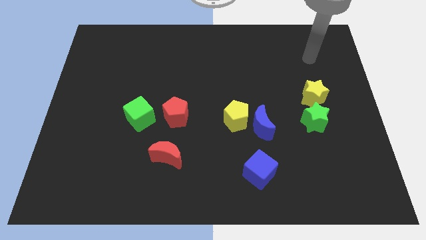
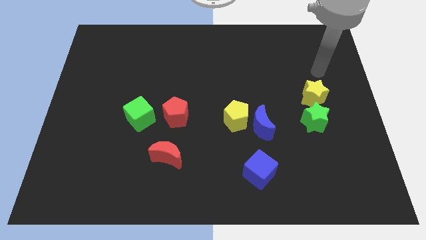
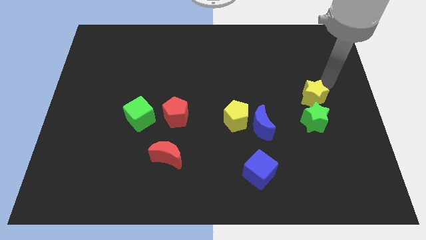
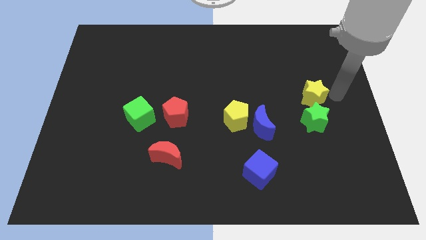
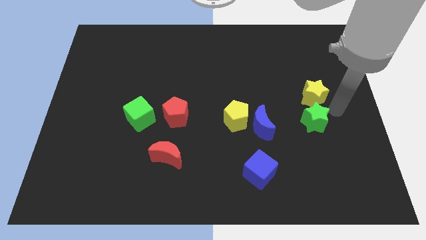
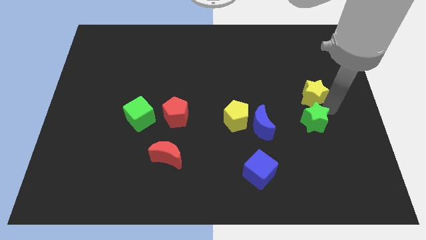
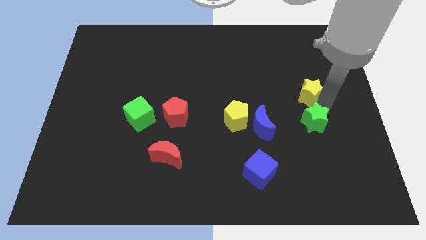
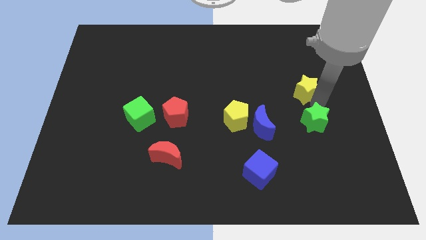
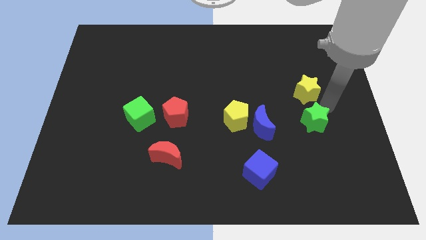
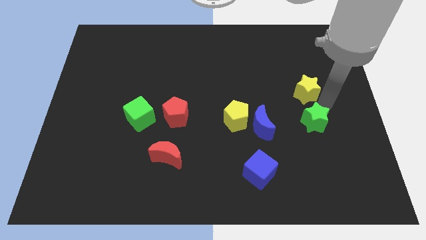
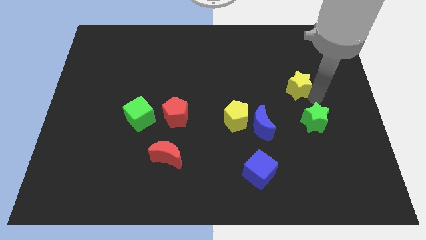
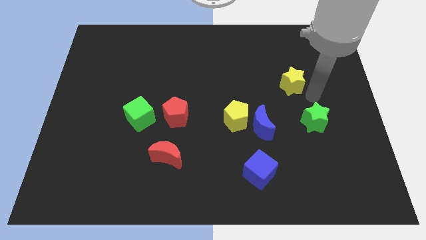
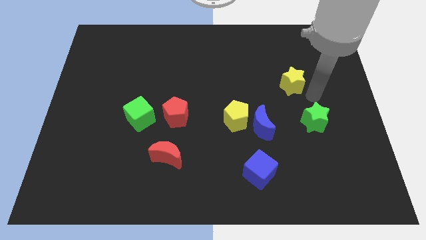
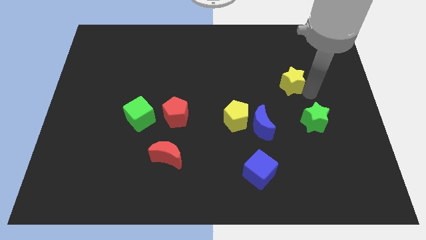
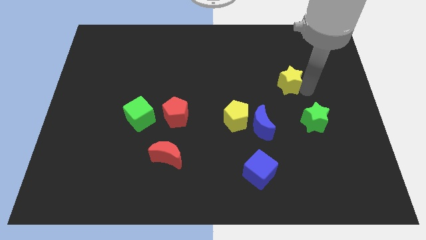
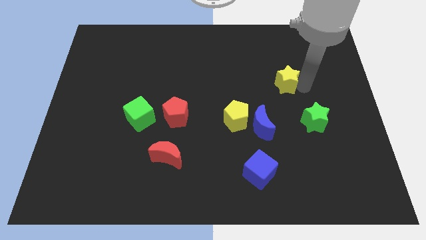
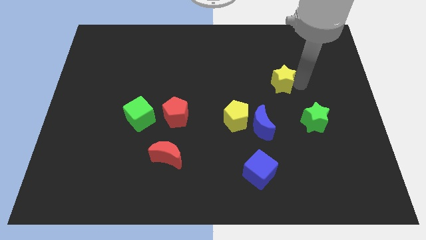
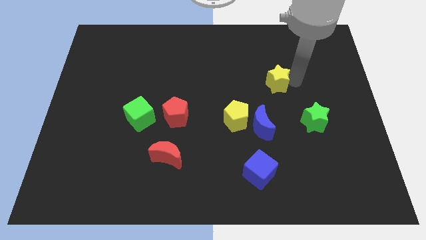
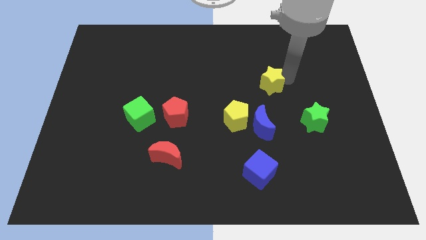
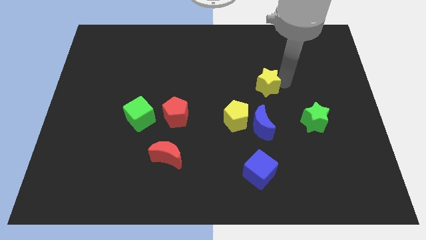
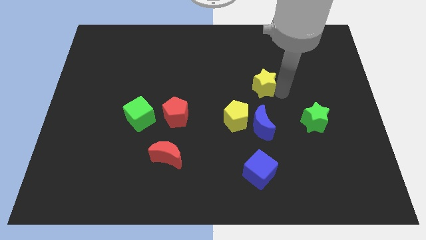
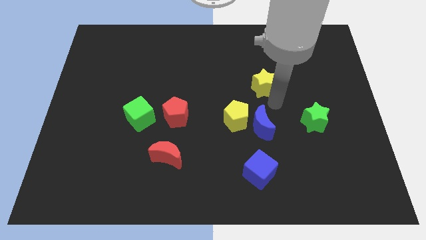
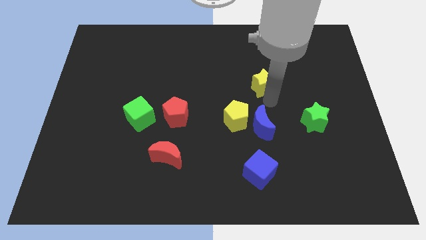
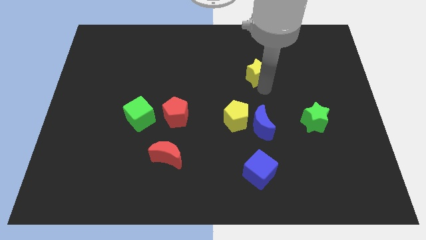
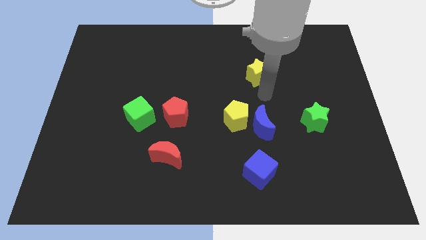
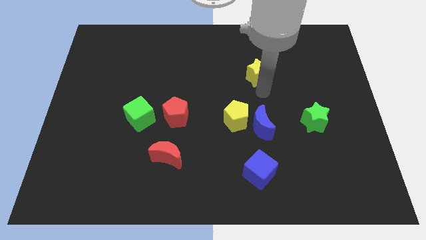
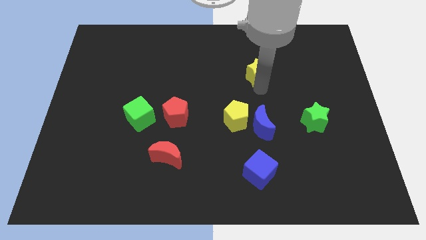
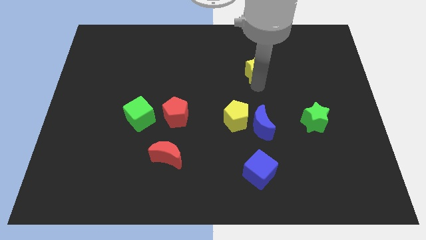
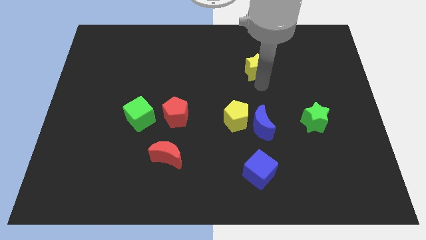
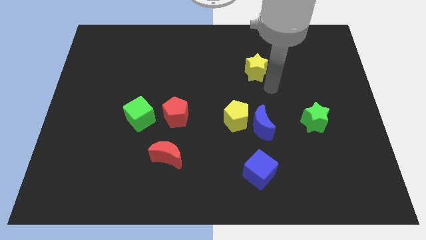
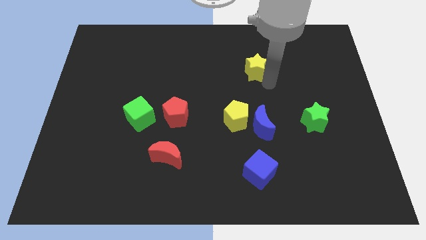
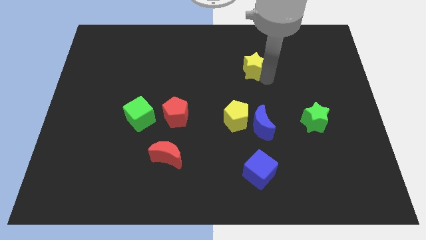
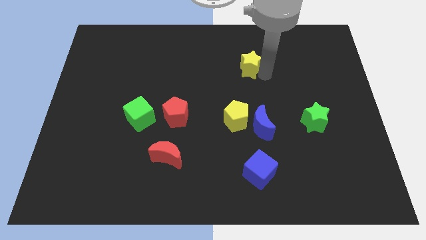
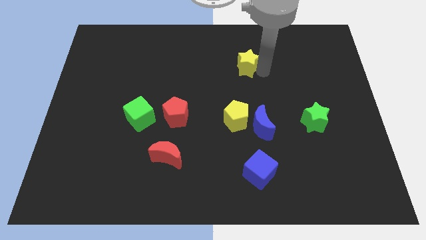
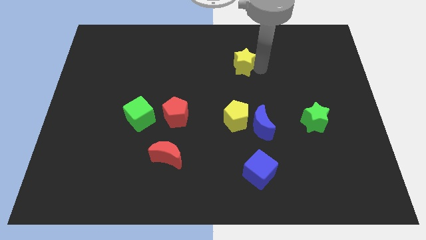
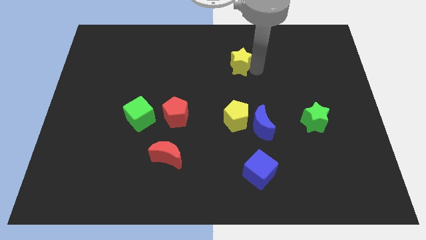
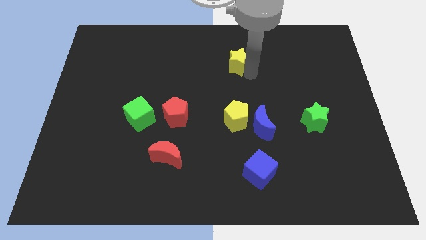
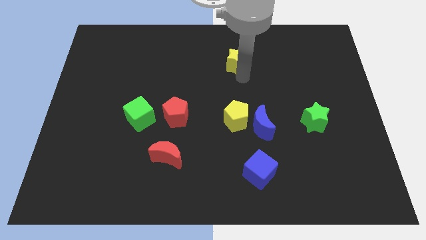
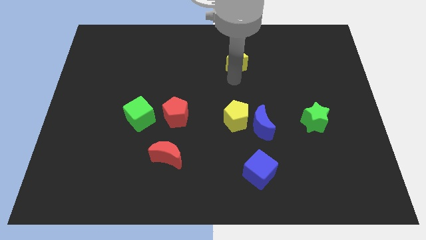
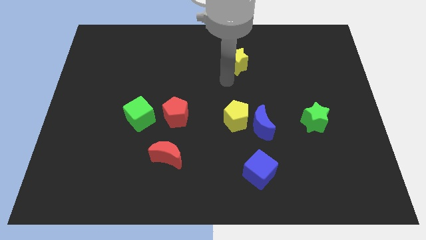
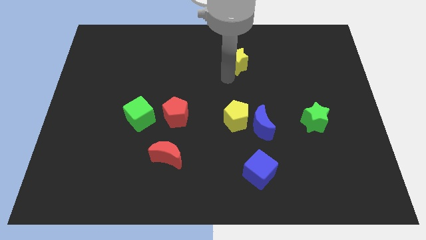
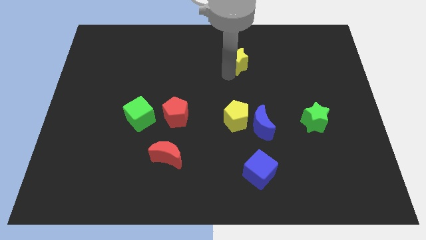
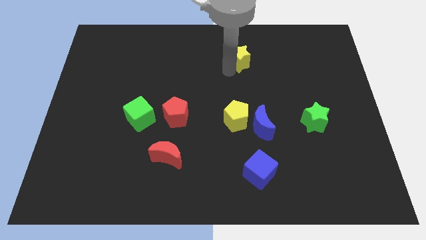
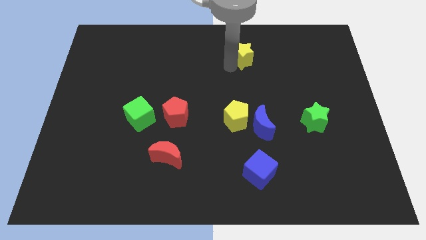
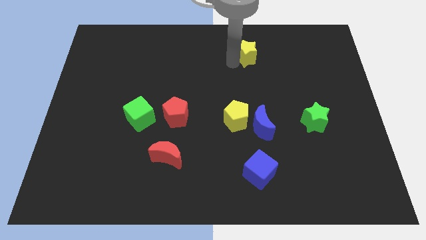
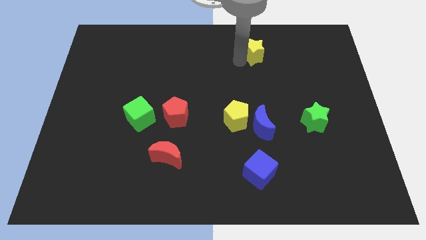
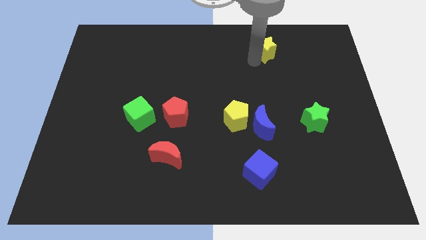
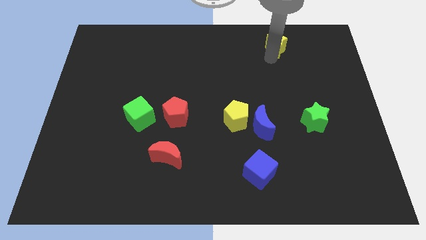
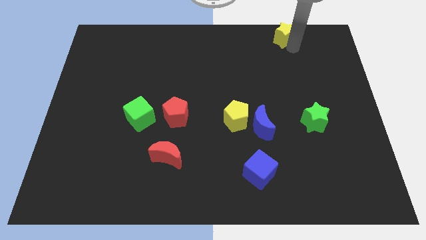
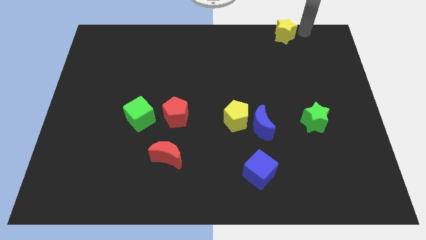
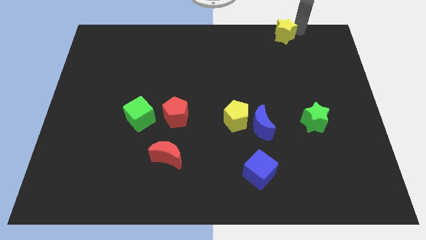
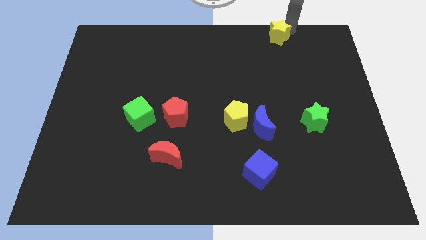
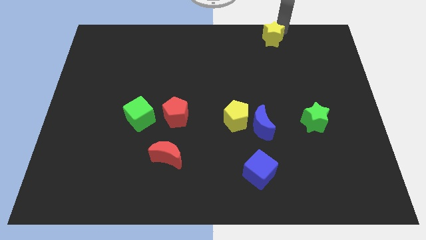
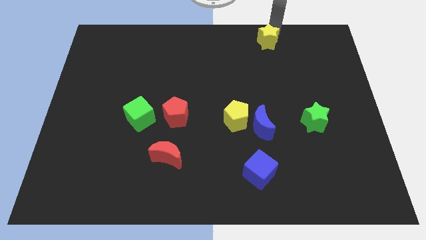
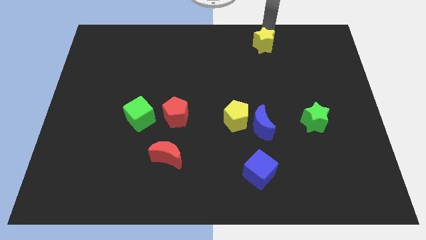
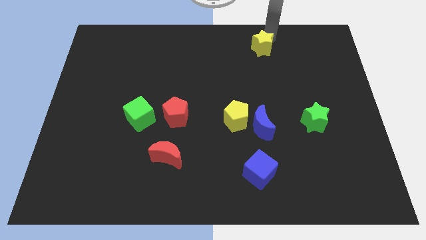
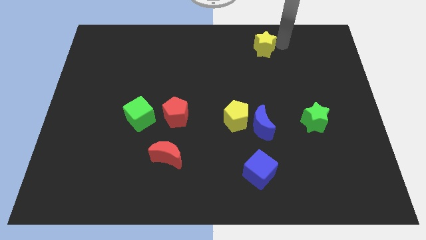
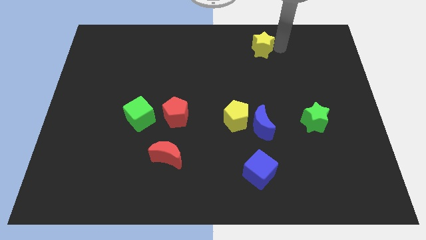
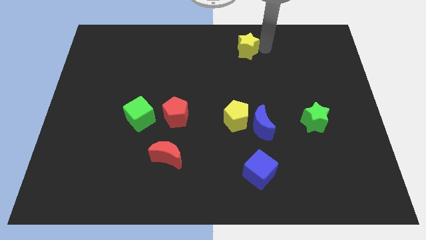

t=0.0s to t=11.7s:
slide the yellow star to the top
